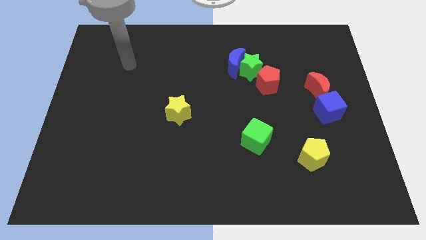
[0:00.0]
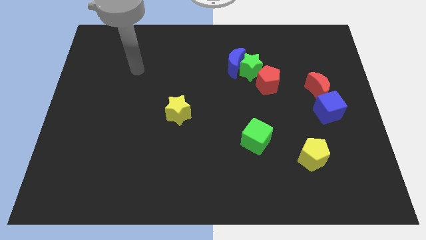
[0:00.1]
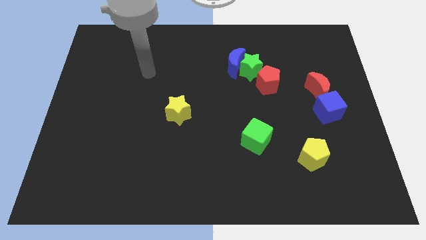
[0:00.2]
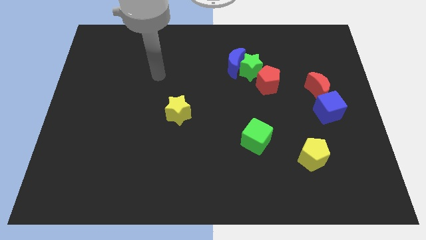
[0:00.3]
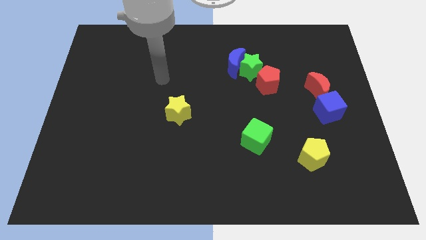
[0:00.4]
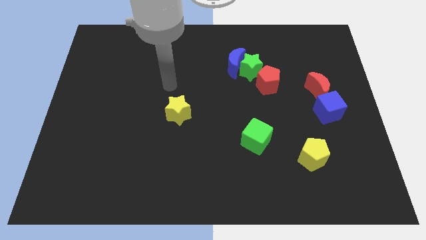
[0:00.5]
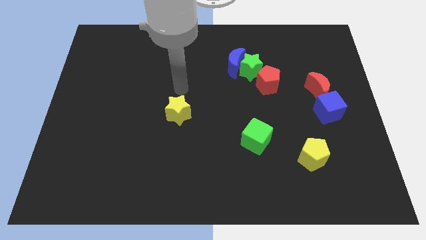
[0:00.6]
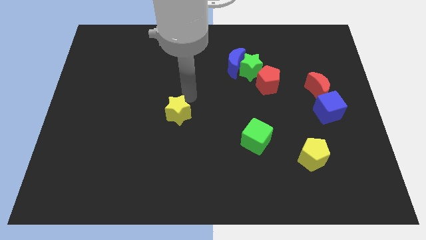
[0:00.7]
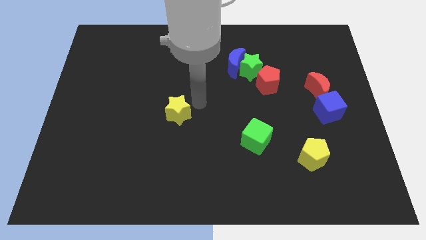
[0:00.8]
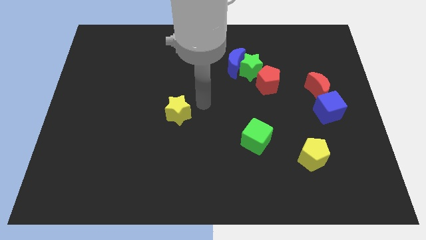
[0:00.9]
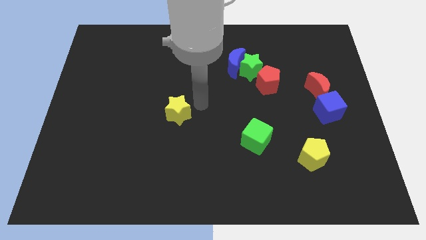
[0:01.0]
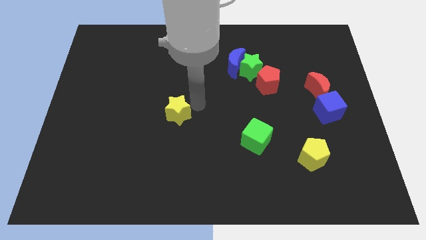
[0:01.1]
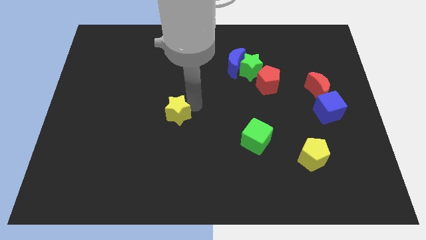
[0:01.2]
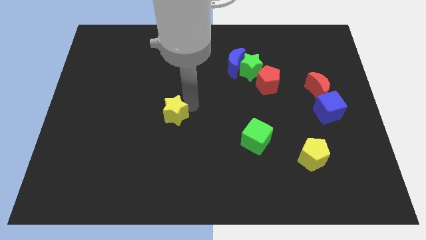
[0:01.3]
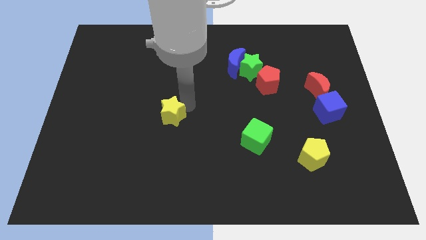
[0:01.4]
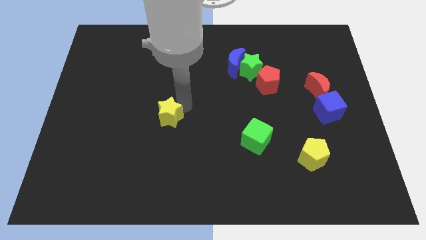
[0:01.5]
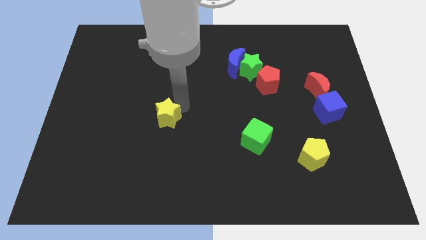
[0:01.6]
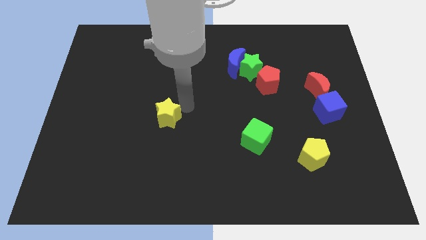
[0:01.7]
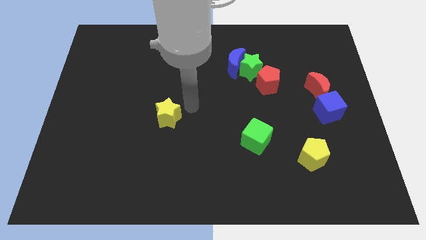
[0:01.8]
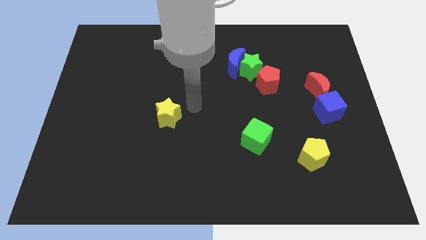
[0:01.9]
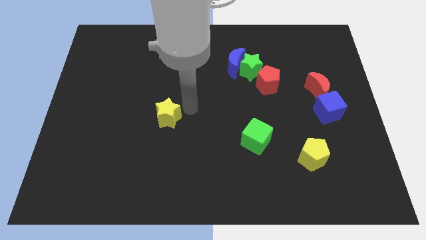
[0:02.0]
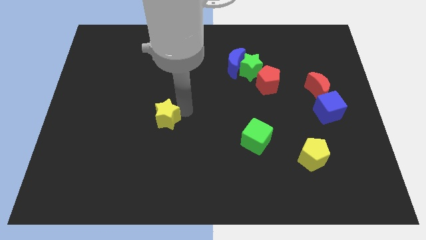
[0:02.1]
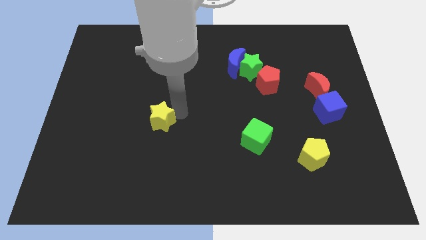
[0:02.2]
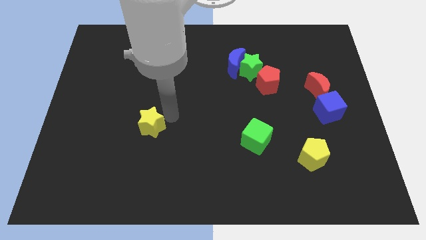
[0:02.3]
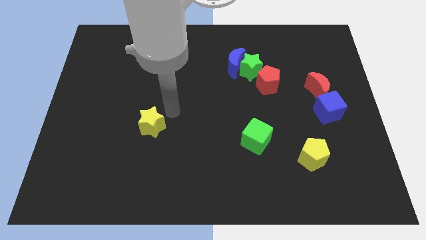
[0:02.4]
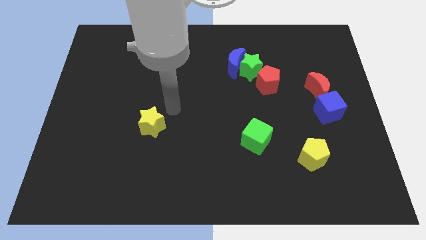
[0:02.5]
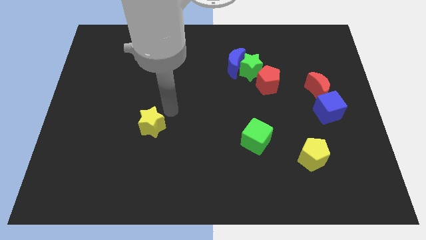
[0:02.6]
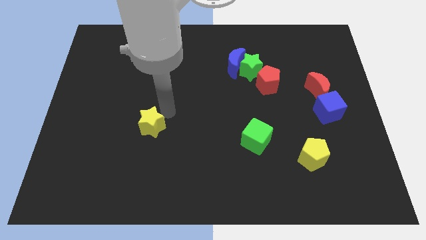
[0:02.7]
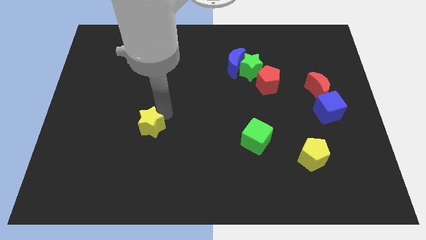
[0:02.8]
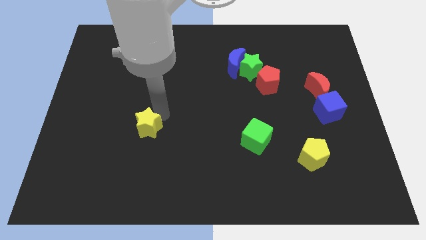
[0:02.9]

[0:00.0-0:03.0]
push the yellow star downwards and then left a little bit

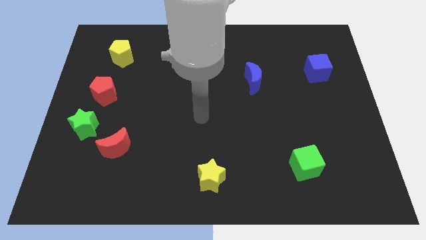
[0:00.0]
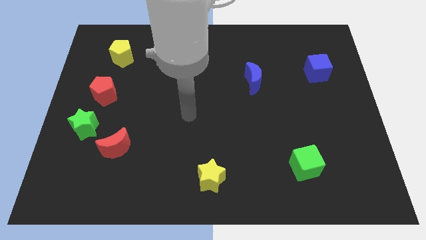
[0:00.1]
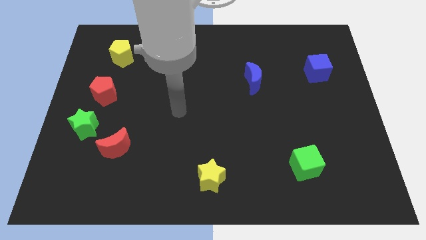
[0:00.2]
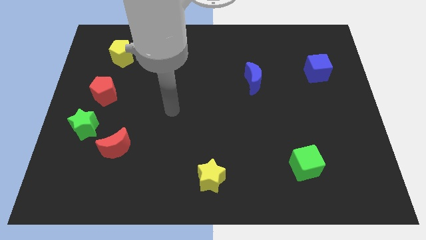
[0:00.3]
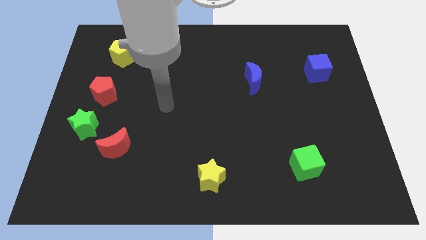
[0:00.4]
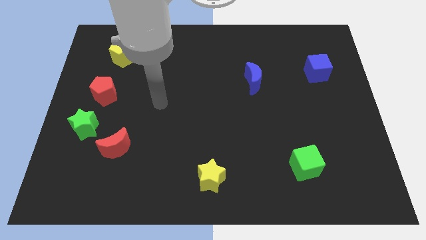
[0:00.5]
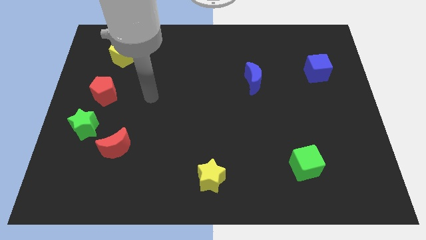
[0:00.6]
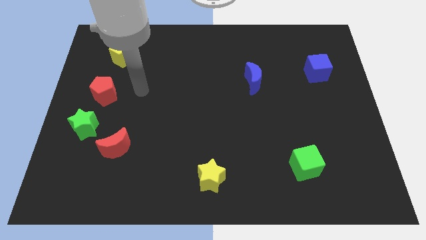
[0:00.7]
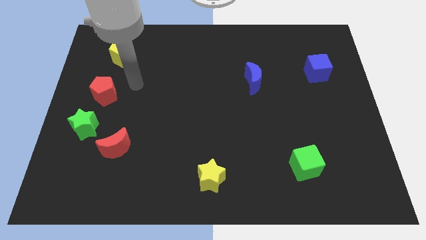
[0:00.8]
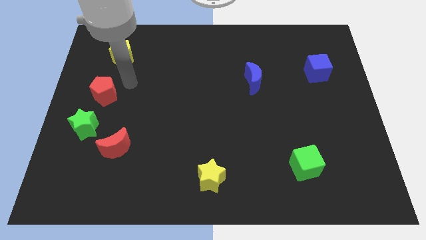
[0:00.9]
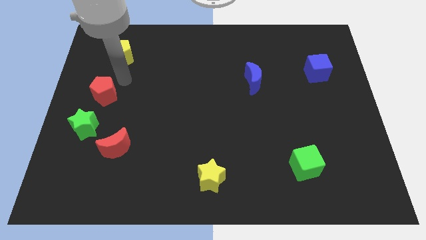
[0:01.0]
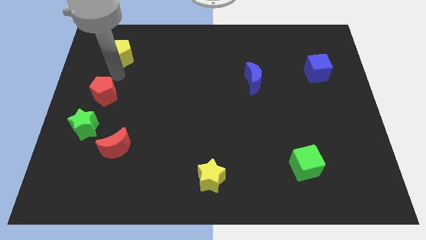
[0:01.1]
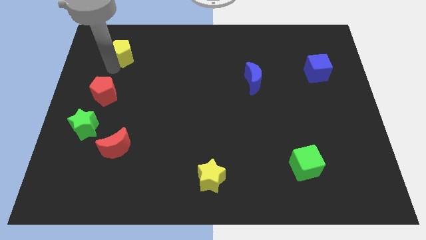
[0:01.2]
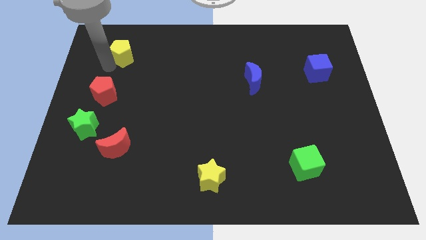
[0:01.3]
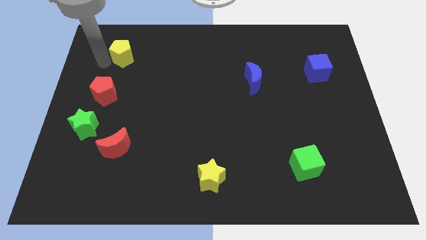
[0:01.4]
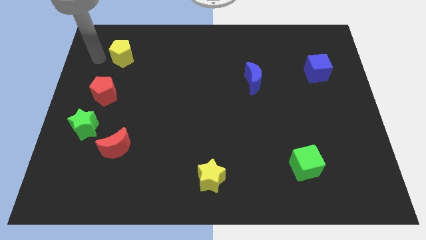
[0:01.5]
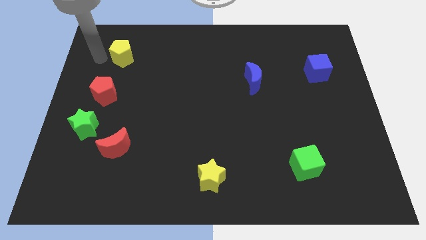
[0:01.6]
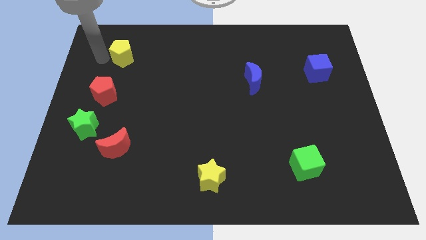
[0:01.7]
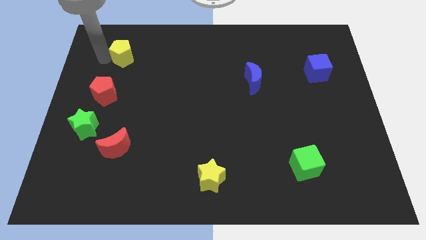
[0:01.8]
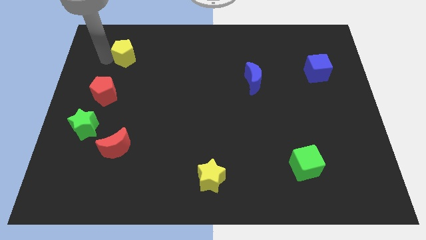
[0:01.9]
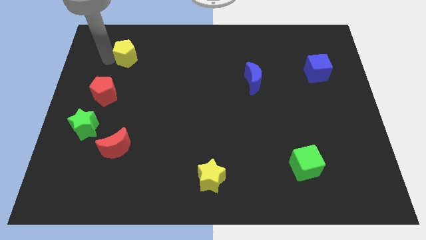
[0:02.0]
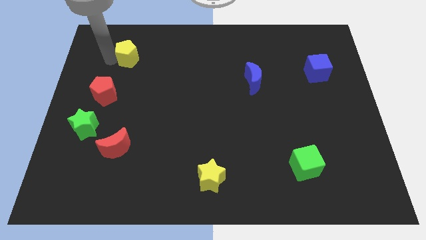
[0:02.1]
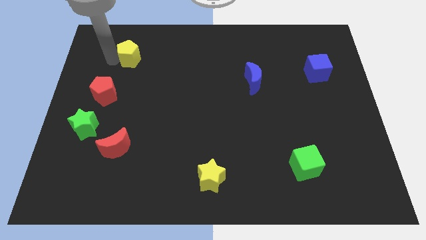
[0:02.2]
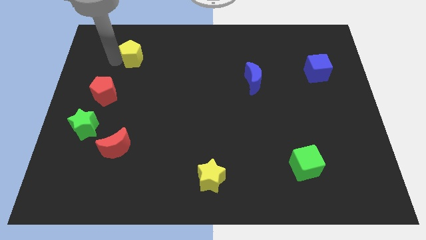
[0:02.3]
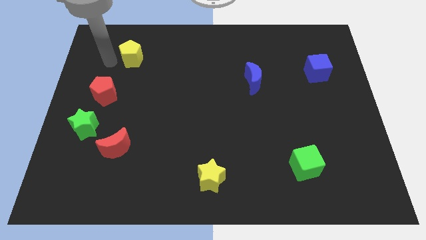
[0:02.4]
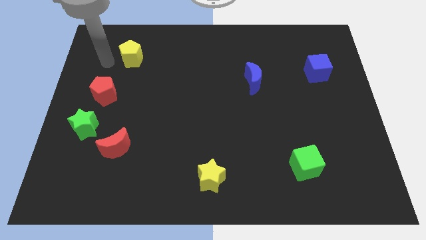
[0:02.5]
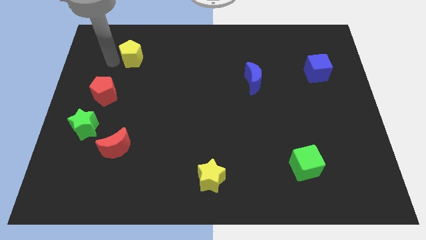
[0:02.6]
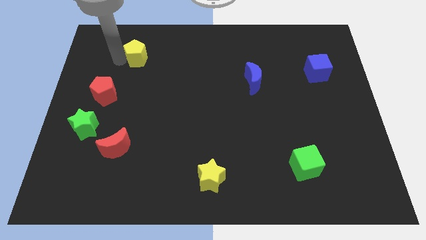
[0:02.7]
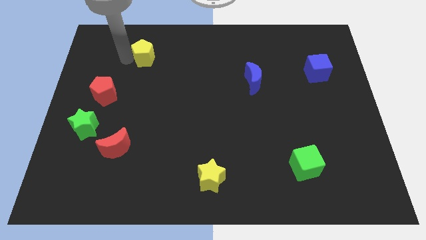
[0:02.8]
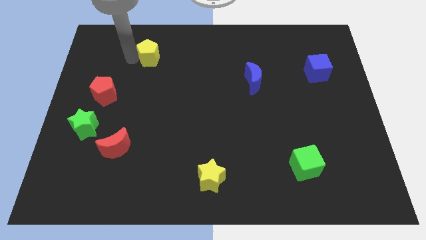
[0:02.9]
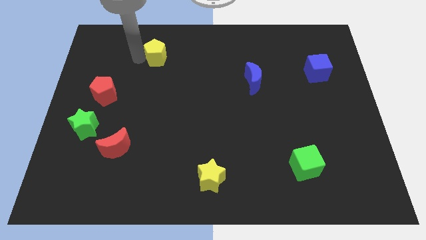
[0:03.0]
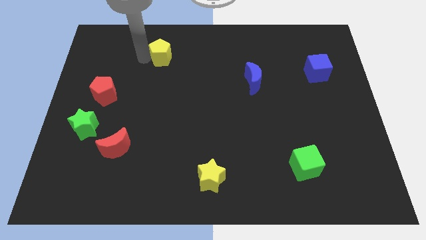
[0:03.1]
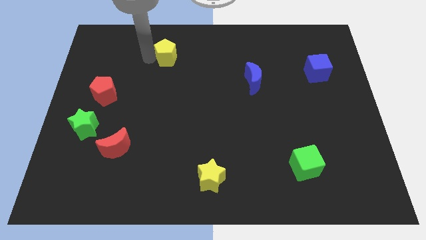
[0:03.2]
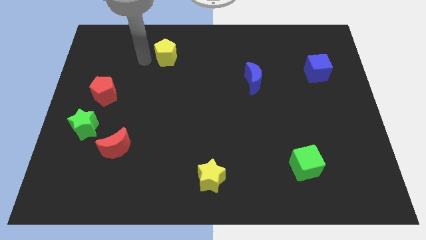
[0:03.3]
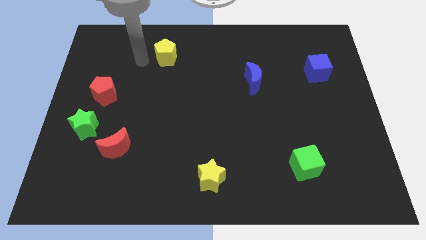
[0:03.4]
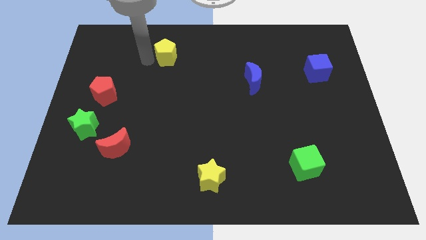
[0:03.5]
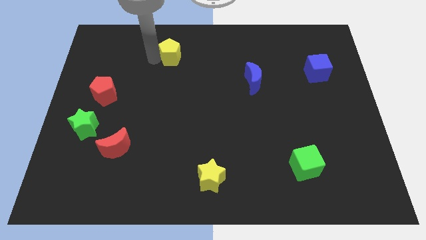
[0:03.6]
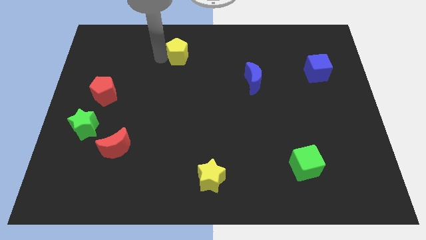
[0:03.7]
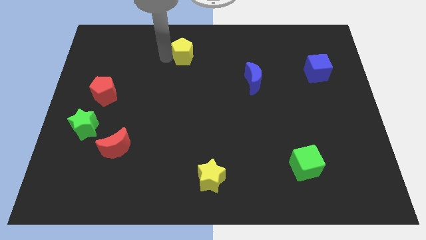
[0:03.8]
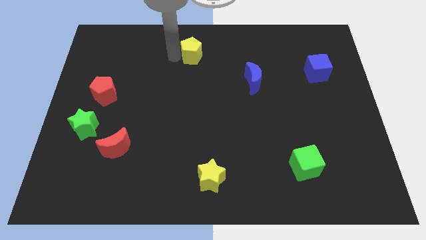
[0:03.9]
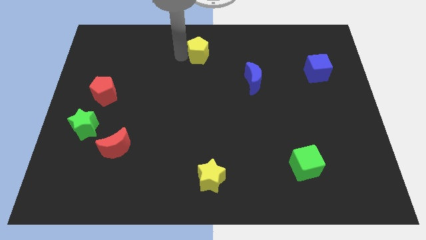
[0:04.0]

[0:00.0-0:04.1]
move the yellow pentagon to the right

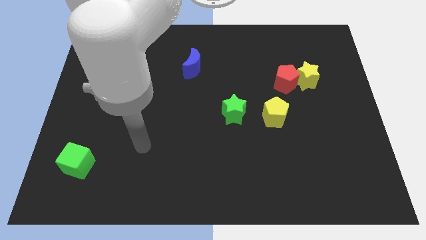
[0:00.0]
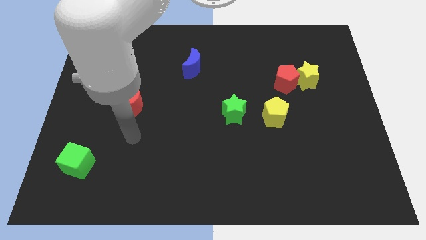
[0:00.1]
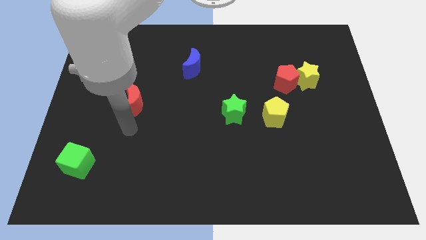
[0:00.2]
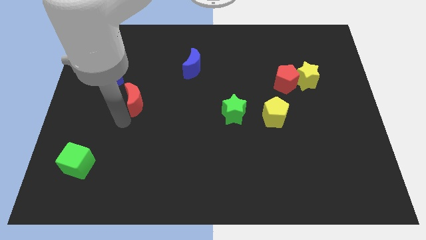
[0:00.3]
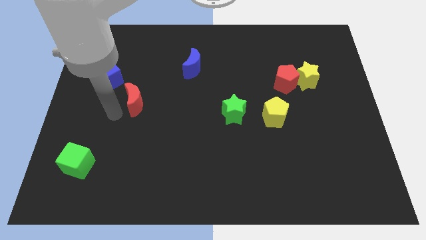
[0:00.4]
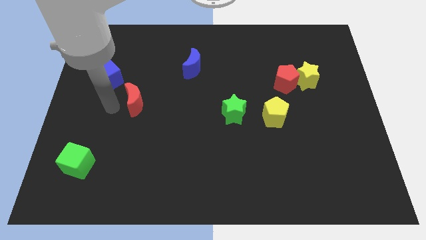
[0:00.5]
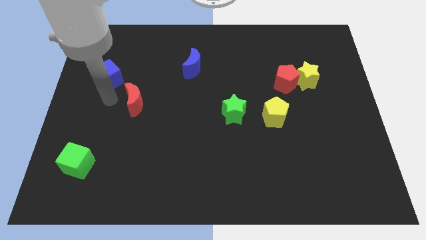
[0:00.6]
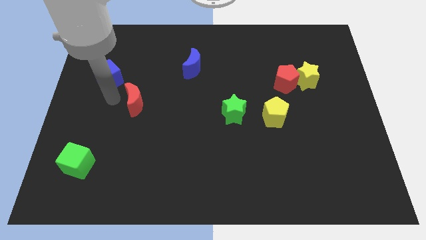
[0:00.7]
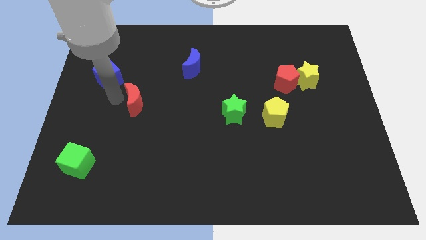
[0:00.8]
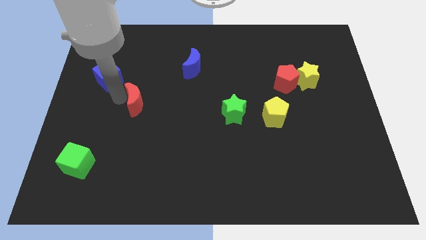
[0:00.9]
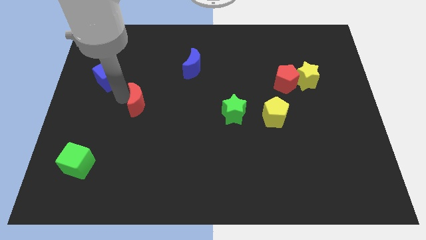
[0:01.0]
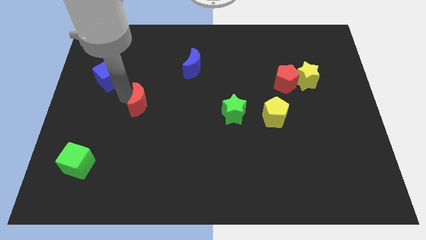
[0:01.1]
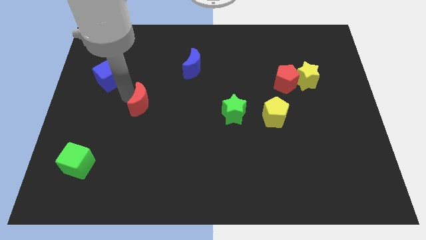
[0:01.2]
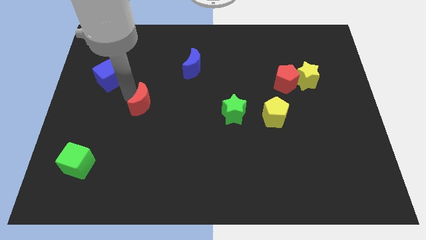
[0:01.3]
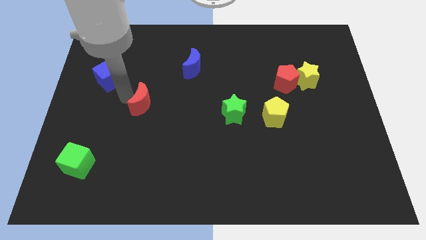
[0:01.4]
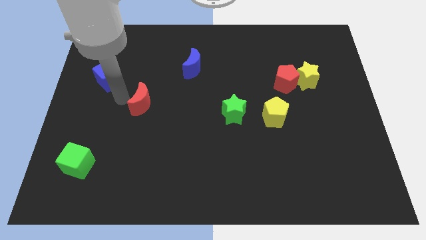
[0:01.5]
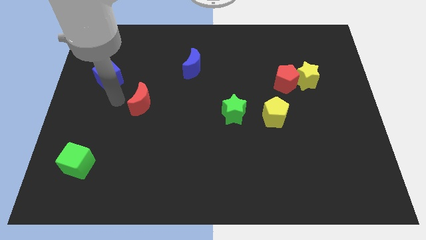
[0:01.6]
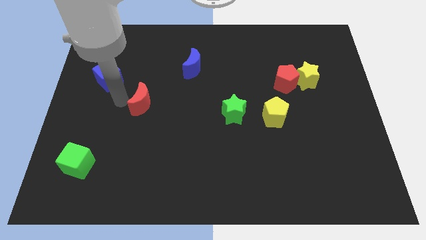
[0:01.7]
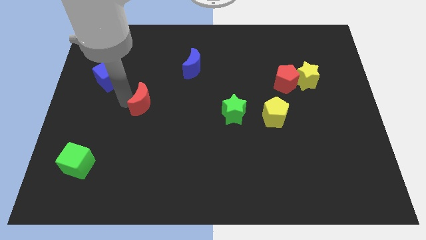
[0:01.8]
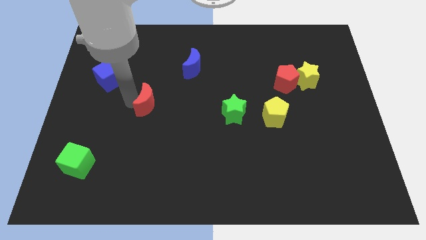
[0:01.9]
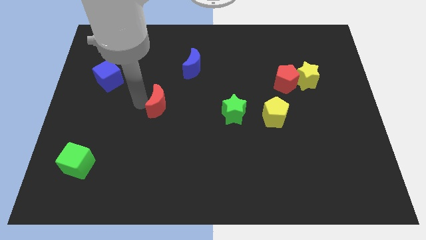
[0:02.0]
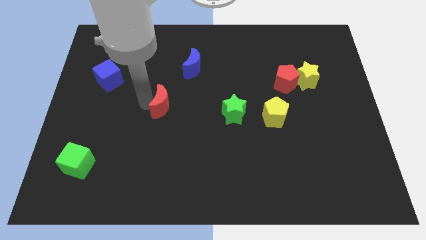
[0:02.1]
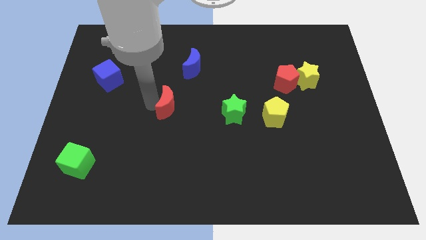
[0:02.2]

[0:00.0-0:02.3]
push the red moon slightly to the right
